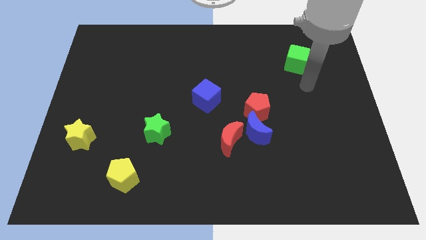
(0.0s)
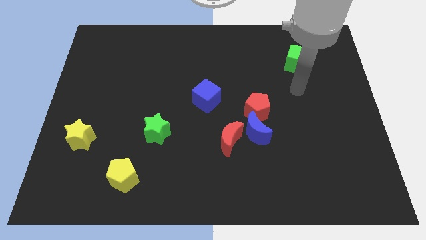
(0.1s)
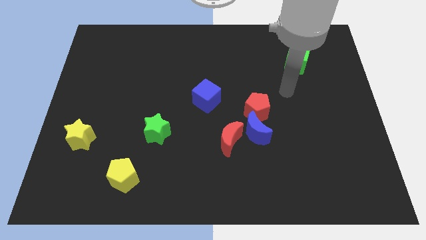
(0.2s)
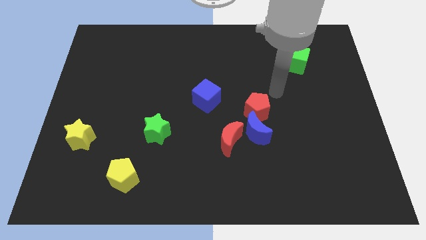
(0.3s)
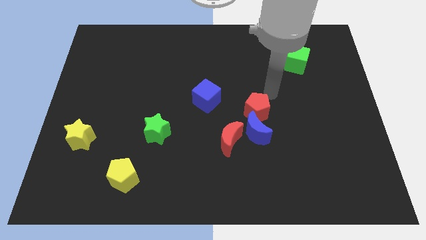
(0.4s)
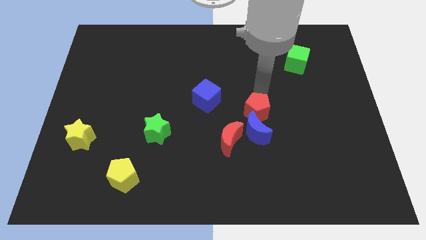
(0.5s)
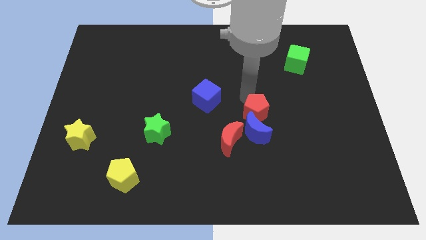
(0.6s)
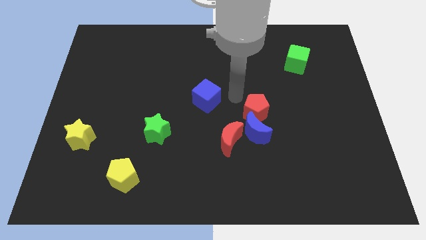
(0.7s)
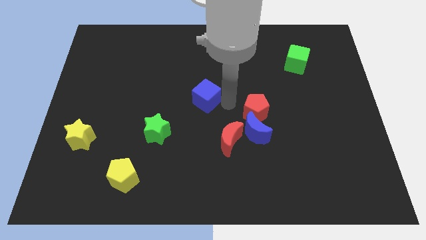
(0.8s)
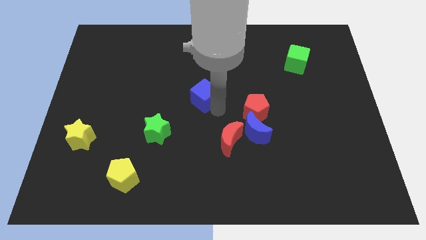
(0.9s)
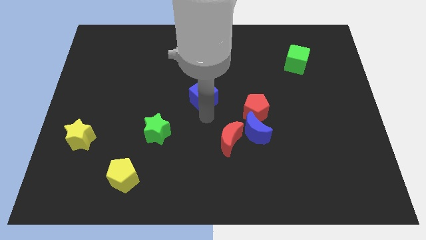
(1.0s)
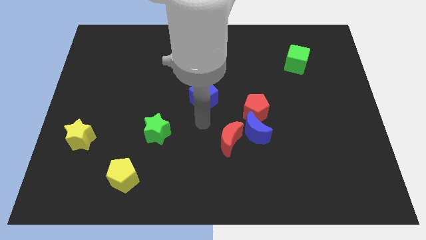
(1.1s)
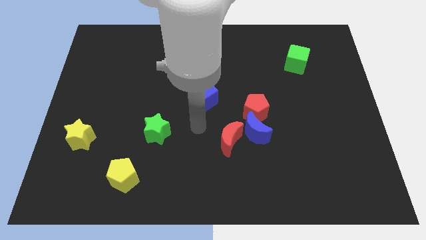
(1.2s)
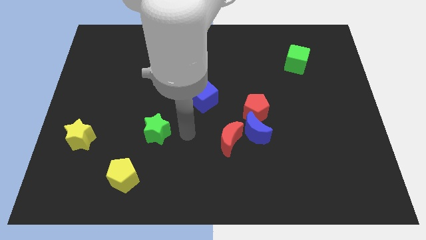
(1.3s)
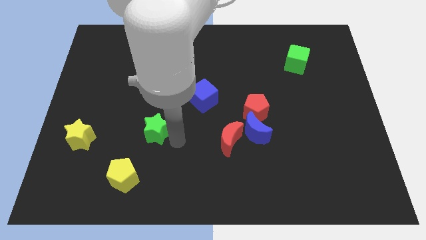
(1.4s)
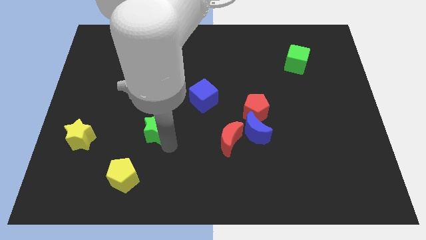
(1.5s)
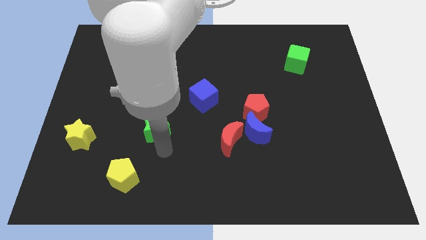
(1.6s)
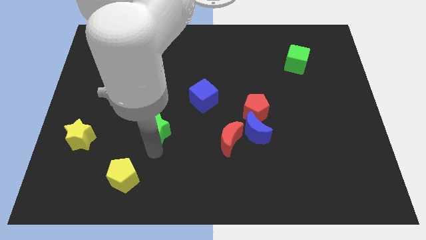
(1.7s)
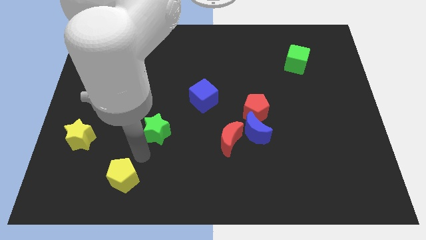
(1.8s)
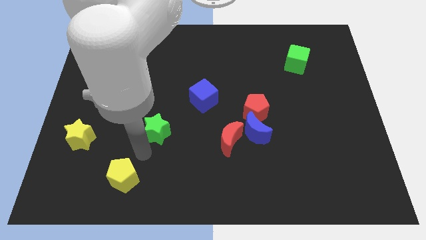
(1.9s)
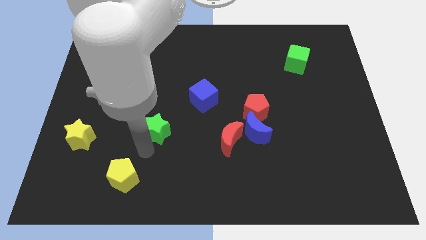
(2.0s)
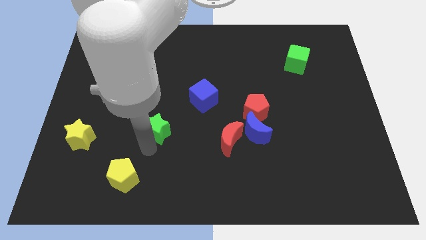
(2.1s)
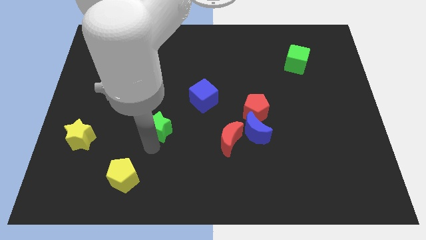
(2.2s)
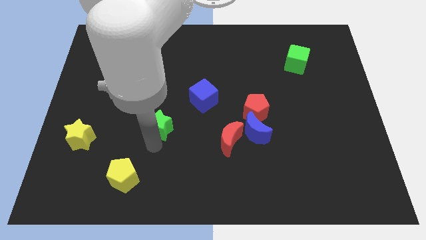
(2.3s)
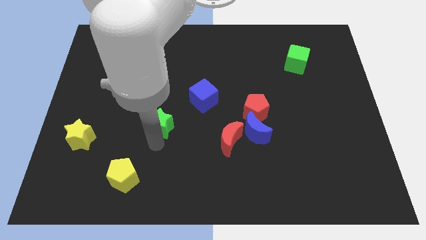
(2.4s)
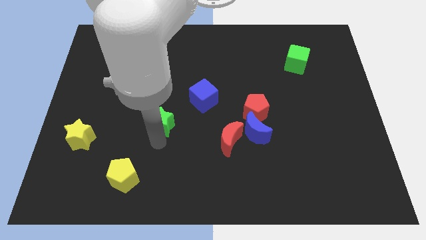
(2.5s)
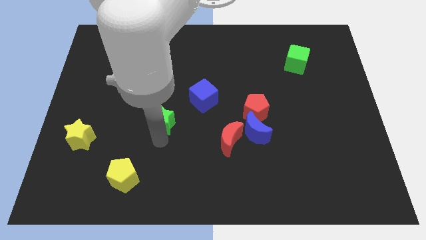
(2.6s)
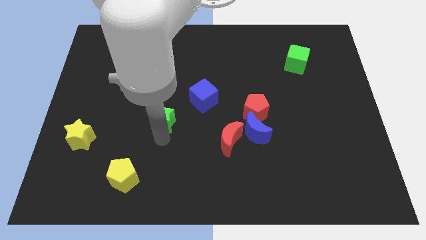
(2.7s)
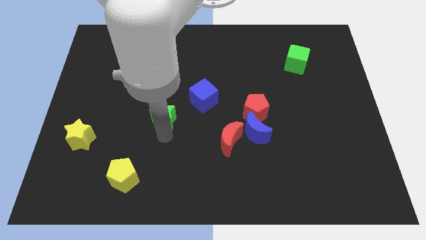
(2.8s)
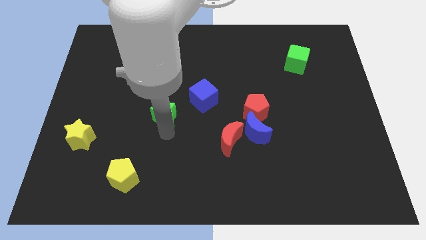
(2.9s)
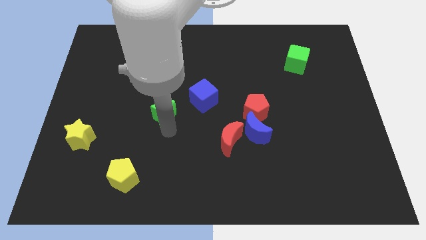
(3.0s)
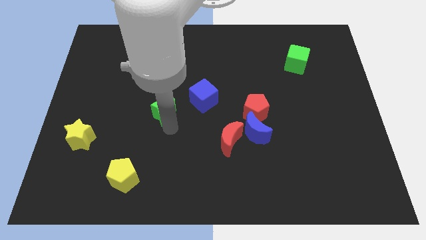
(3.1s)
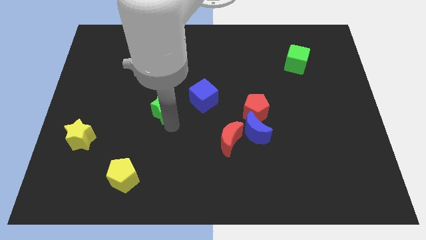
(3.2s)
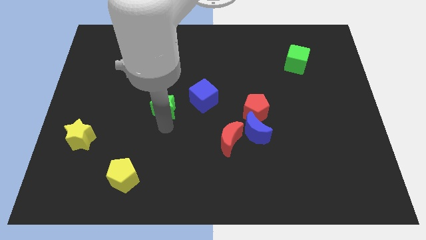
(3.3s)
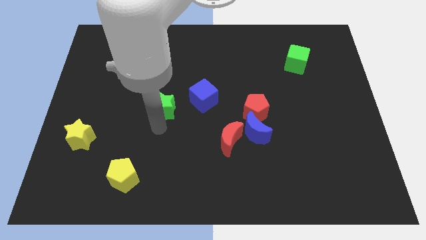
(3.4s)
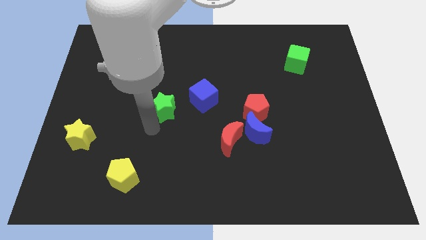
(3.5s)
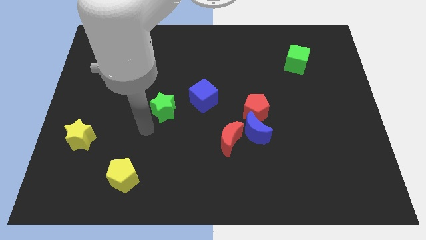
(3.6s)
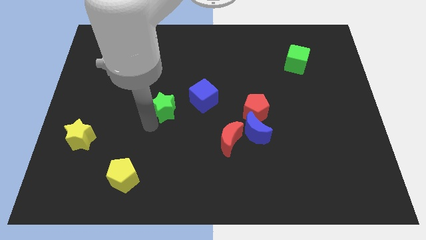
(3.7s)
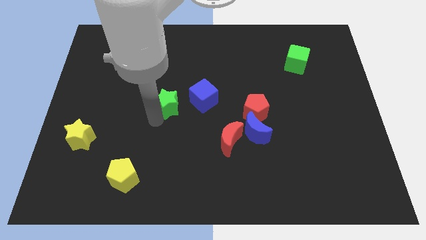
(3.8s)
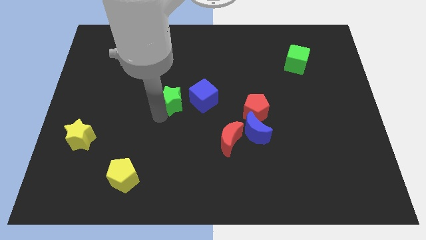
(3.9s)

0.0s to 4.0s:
push the green star a little diagonally upwards and right

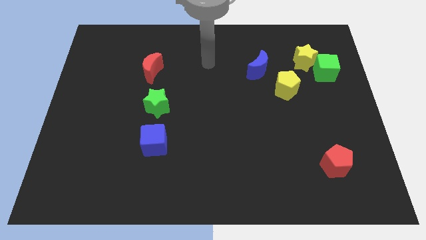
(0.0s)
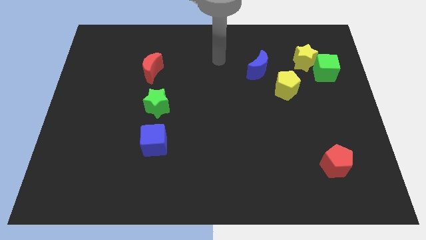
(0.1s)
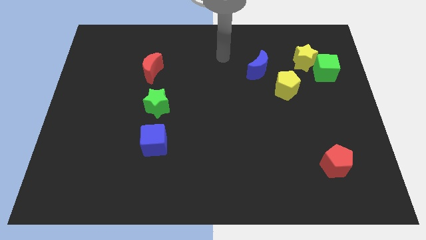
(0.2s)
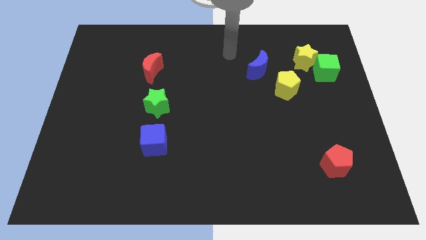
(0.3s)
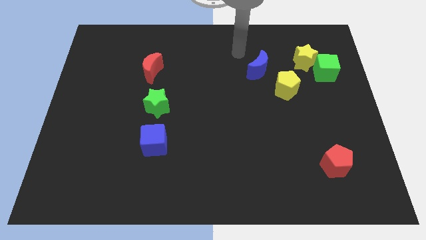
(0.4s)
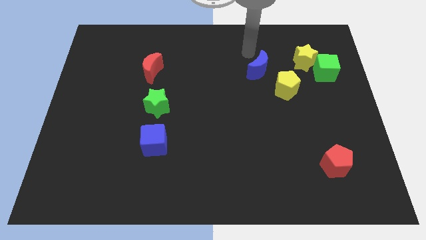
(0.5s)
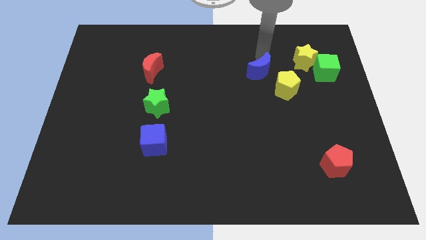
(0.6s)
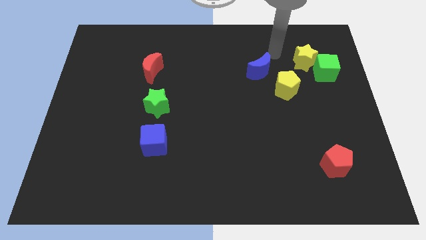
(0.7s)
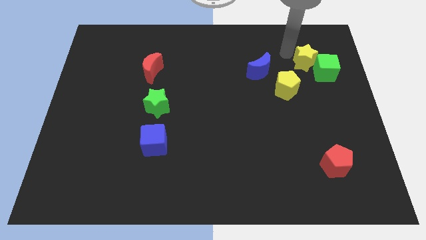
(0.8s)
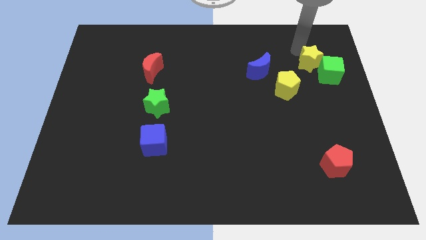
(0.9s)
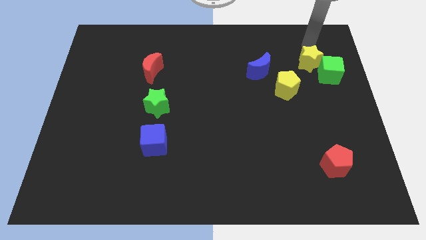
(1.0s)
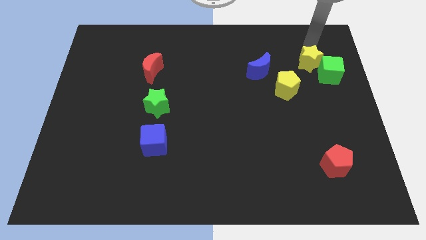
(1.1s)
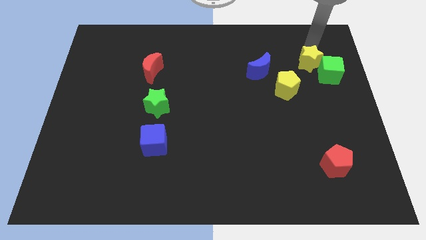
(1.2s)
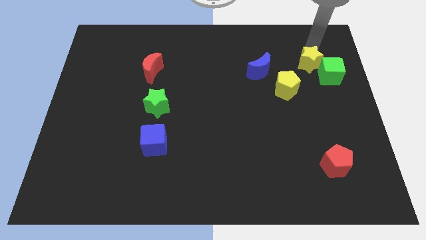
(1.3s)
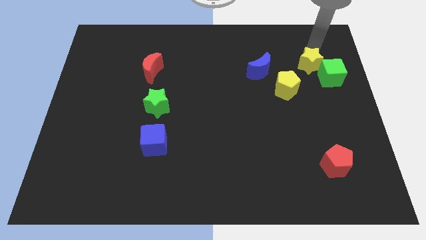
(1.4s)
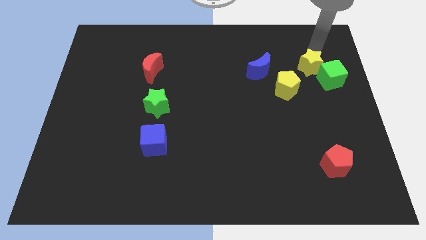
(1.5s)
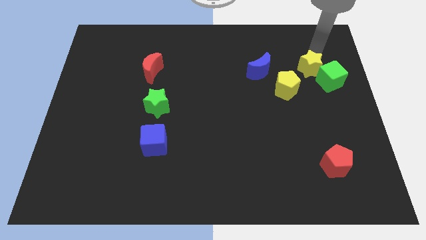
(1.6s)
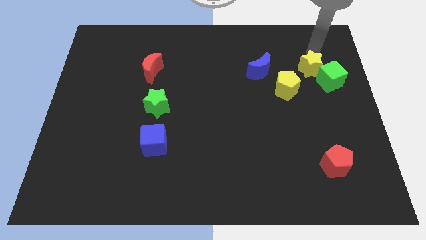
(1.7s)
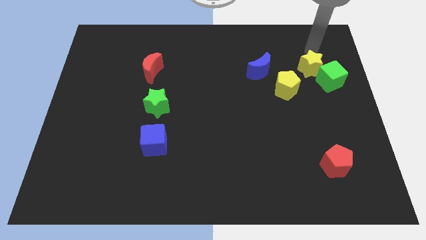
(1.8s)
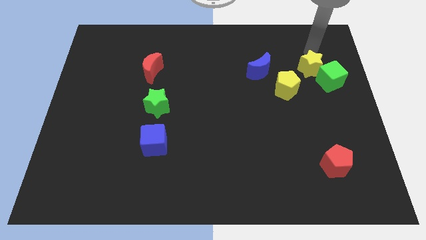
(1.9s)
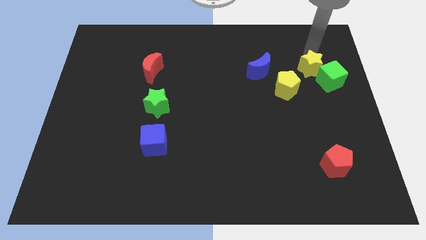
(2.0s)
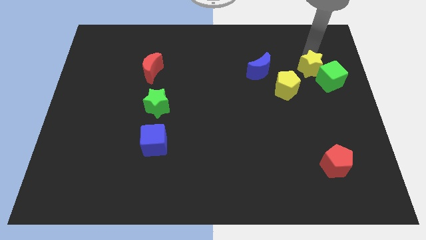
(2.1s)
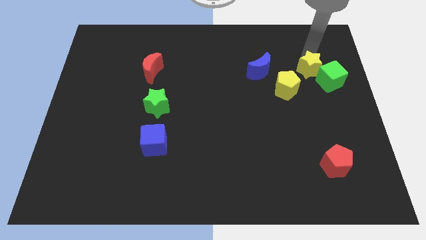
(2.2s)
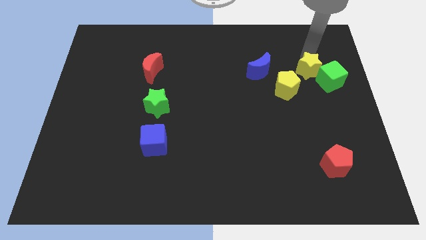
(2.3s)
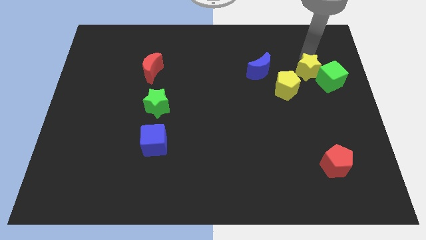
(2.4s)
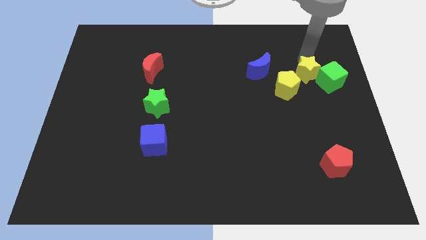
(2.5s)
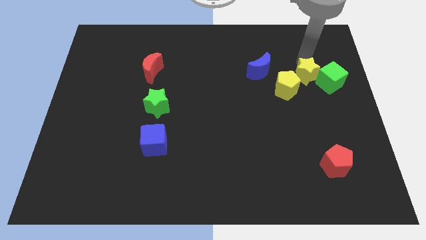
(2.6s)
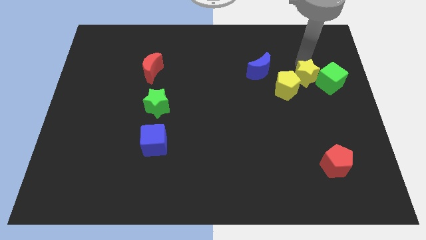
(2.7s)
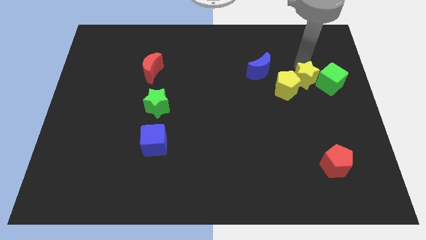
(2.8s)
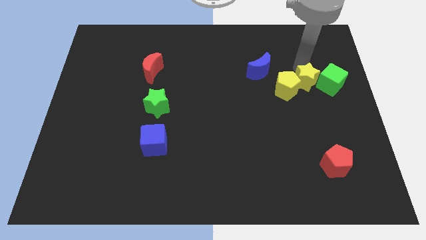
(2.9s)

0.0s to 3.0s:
slightly push the yellow star down

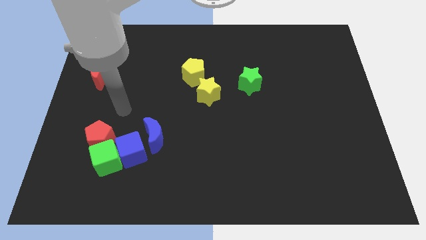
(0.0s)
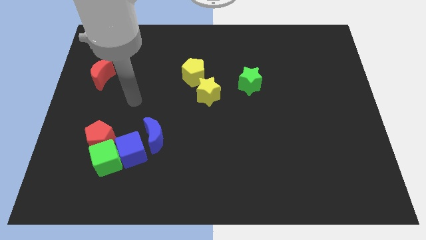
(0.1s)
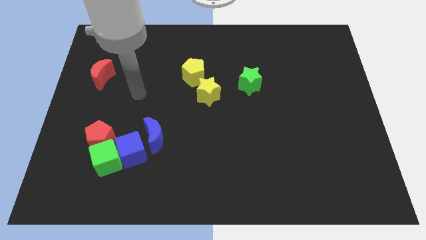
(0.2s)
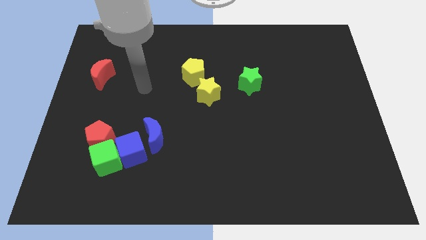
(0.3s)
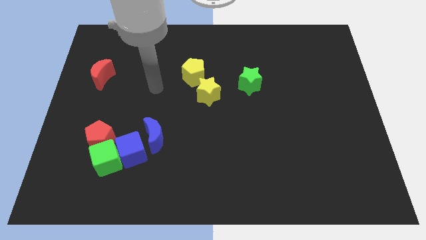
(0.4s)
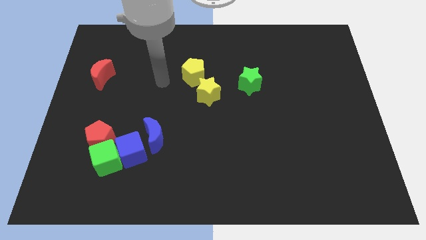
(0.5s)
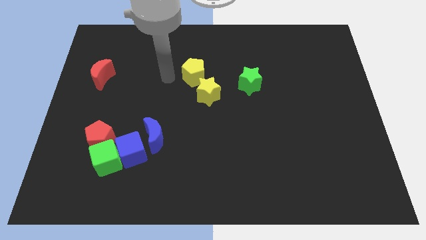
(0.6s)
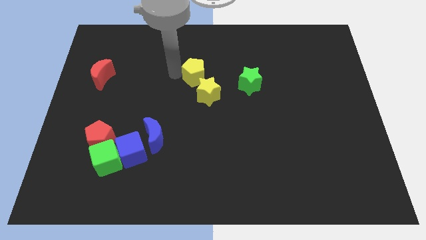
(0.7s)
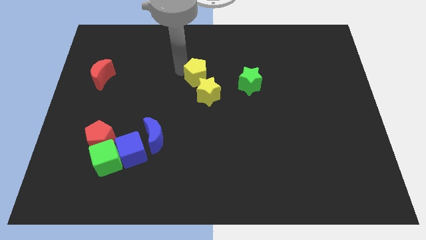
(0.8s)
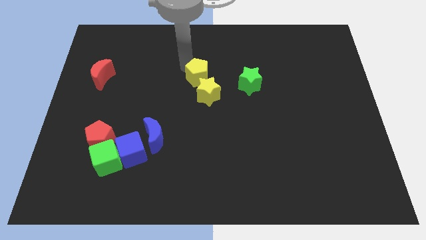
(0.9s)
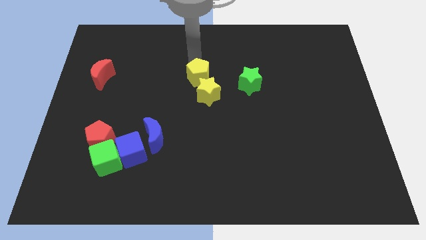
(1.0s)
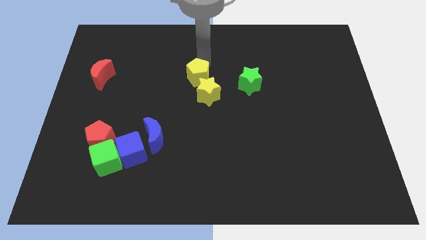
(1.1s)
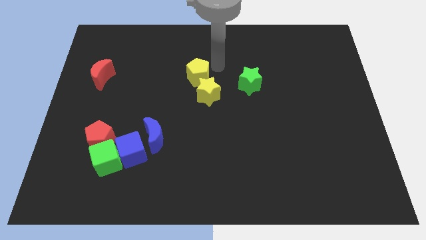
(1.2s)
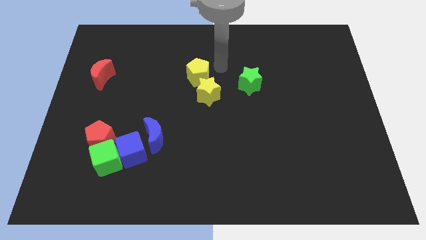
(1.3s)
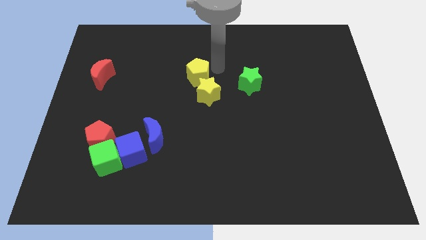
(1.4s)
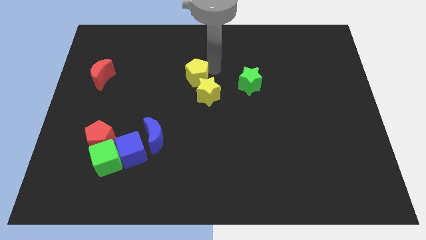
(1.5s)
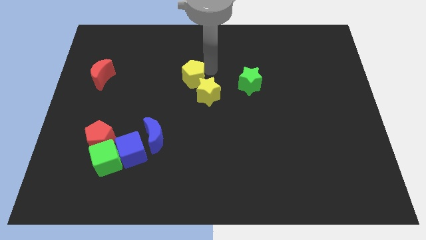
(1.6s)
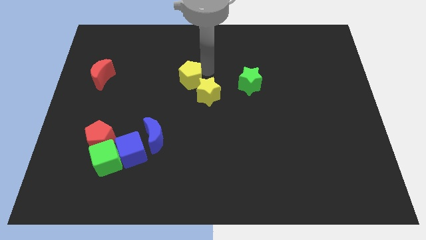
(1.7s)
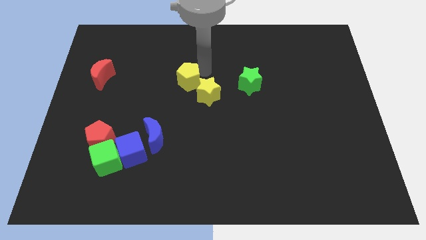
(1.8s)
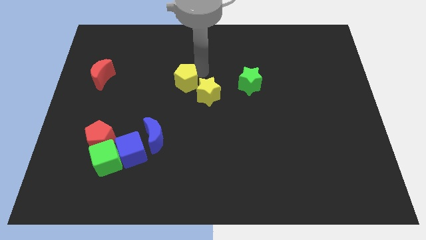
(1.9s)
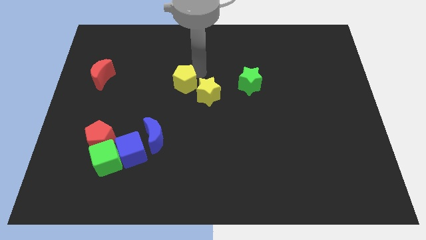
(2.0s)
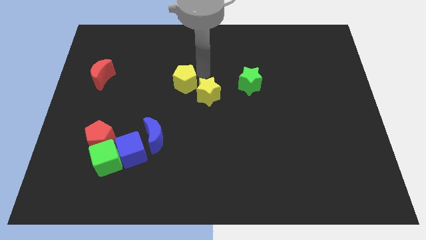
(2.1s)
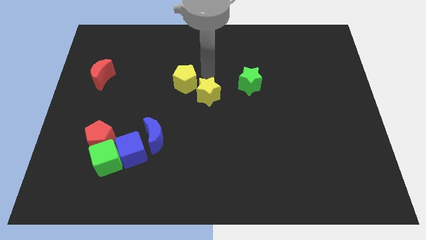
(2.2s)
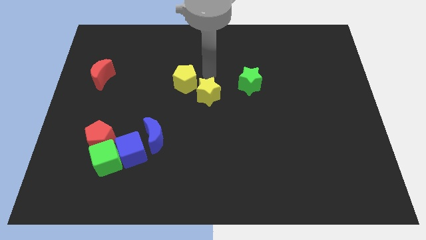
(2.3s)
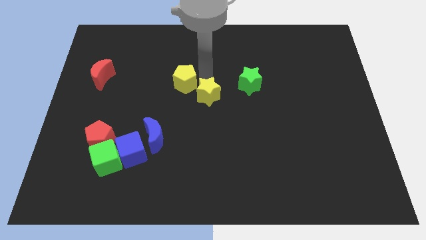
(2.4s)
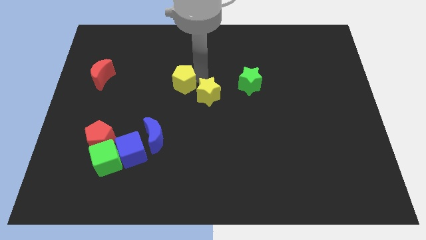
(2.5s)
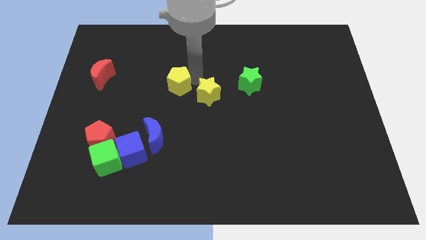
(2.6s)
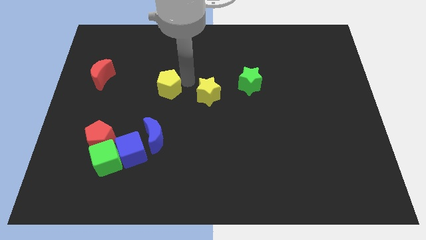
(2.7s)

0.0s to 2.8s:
move the yellow pentagon somewhat diagonally downwards and to the left
